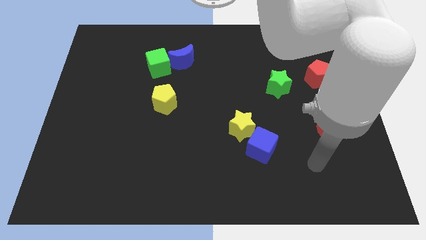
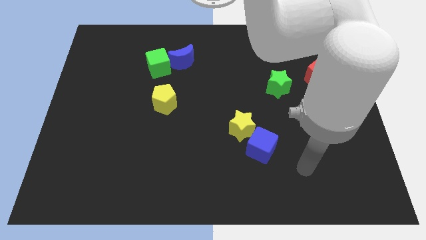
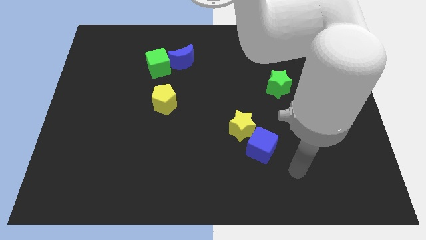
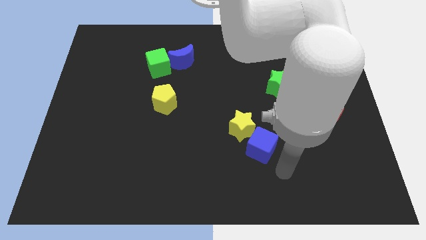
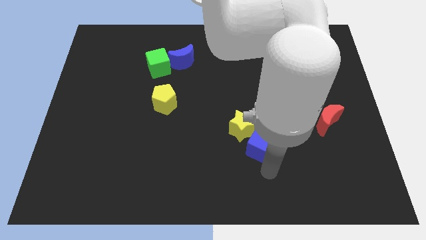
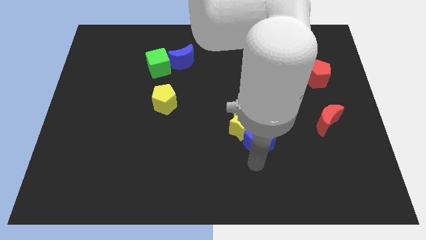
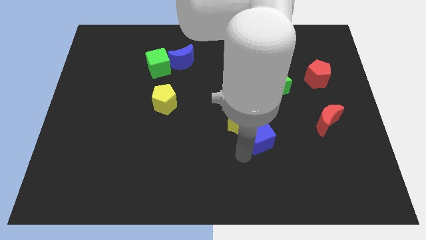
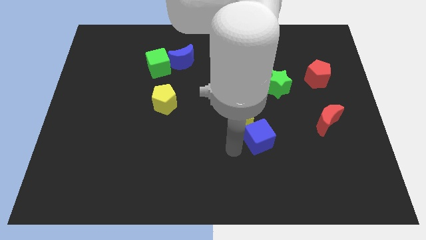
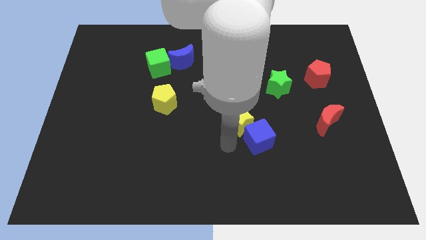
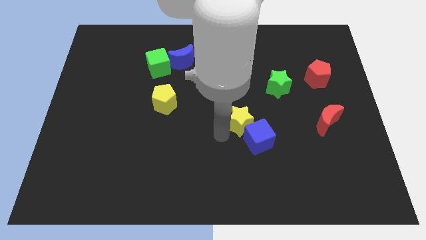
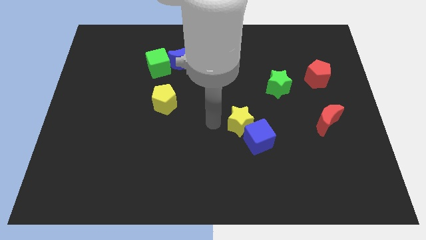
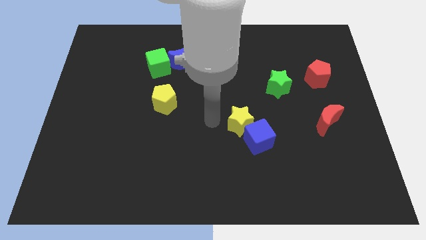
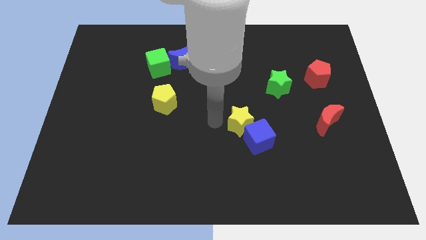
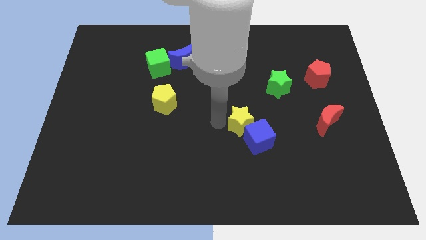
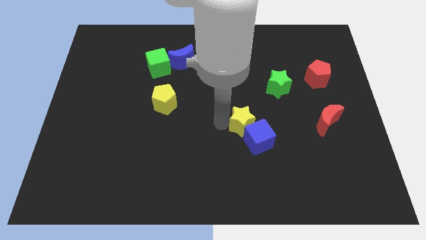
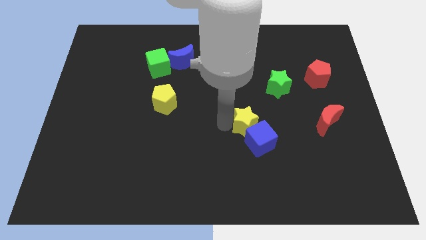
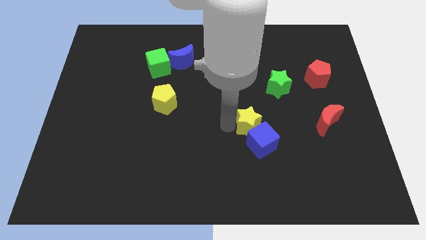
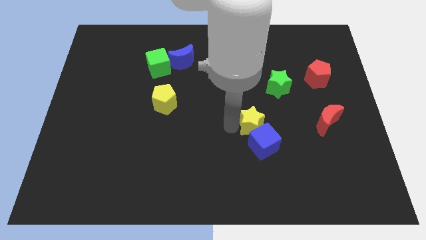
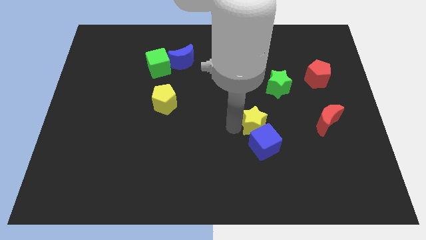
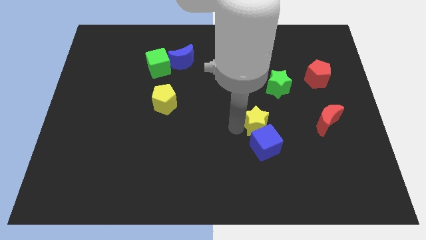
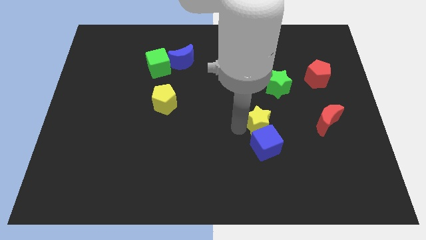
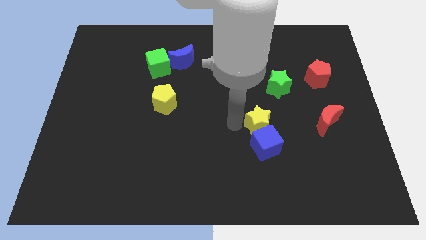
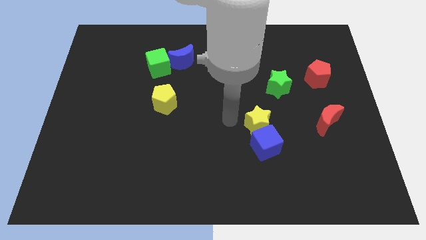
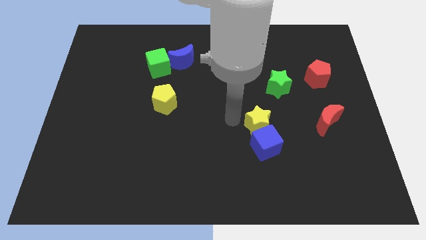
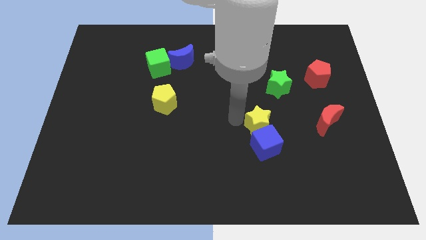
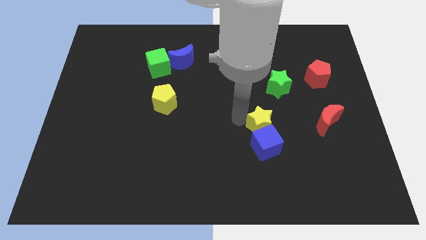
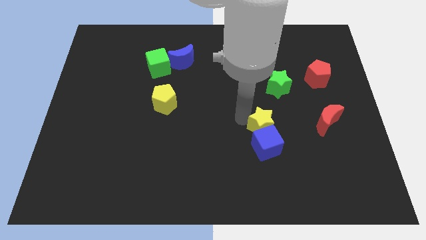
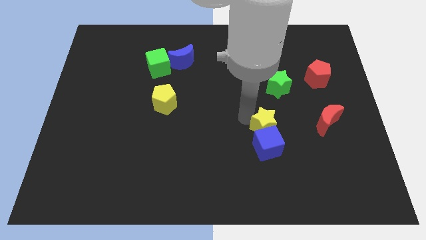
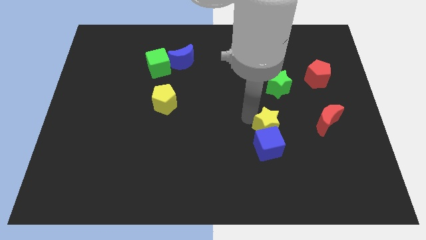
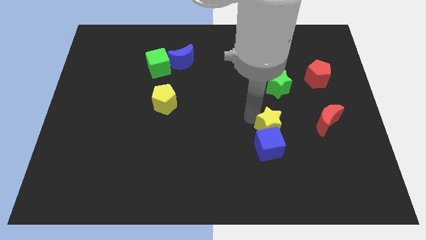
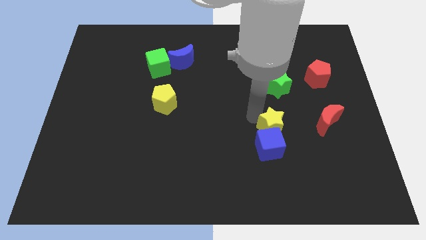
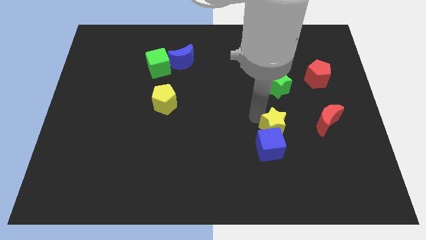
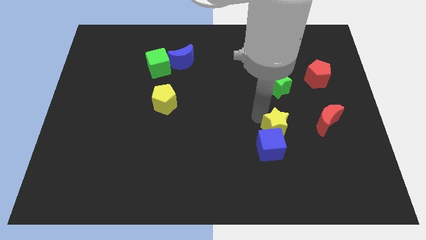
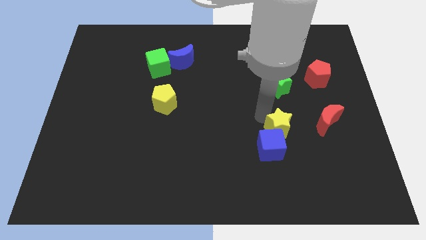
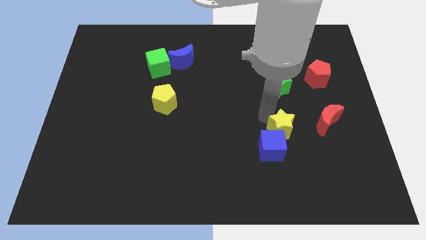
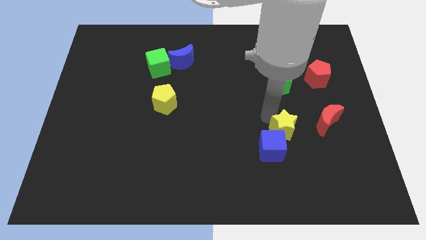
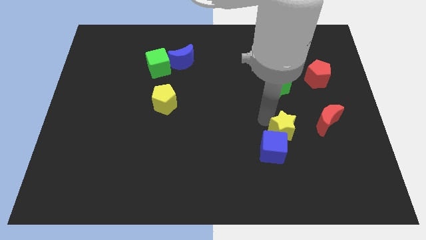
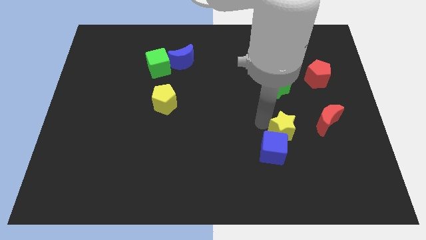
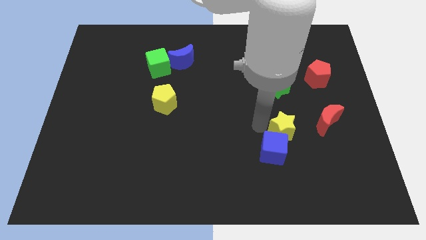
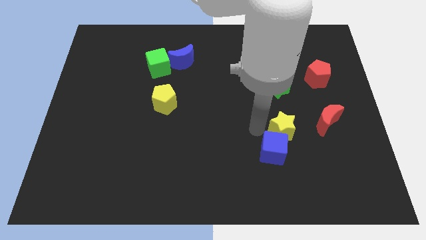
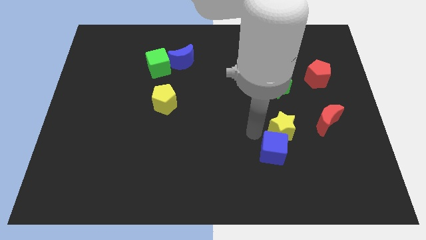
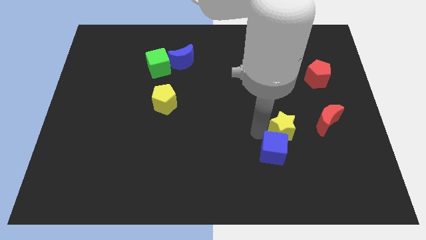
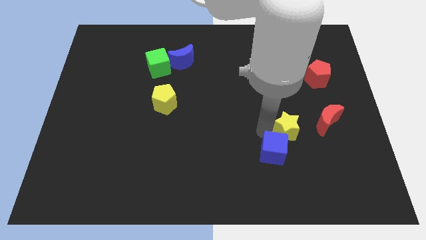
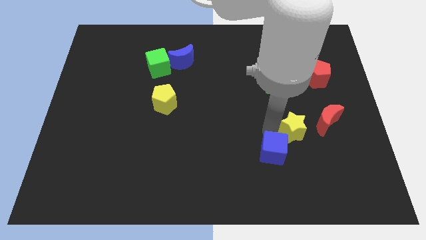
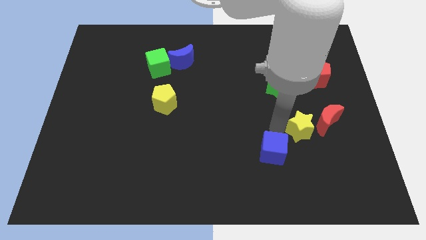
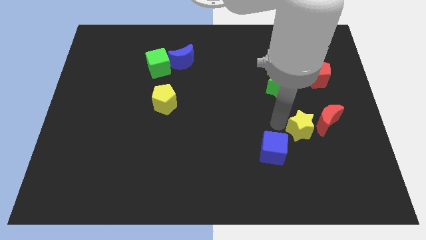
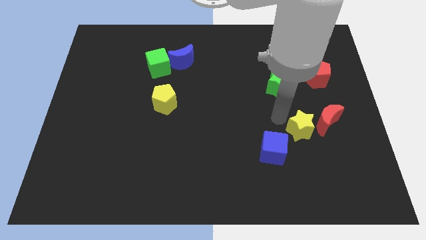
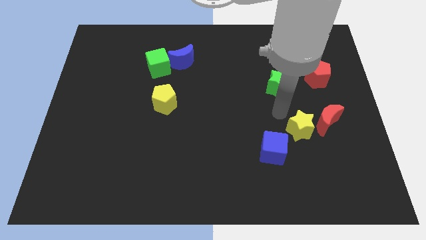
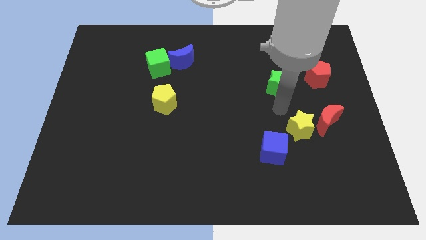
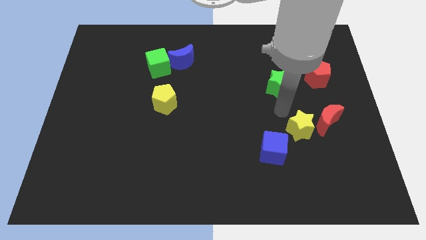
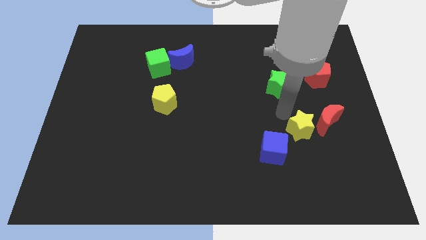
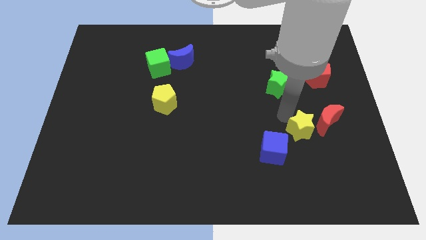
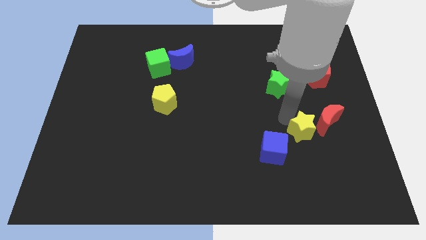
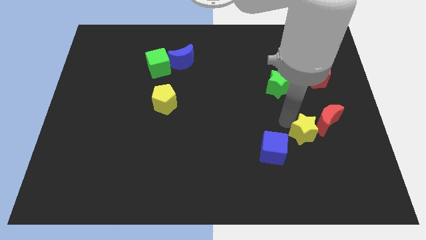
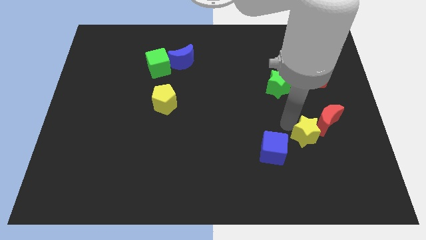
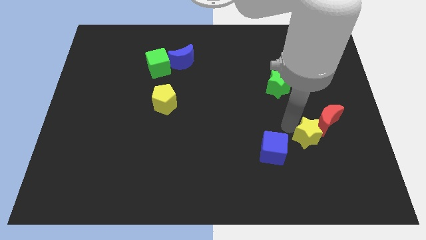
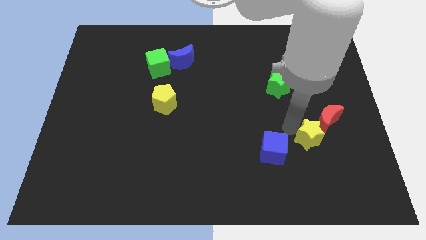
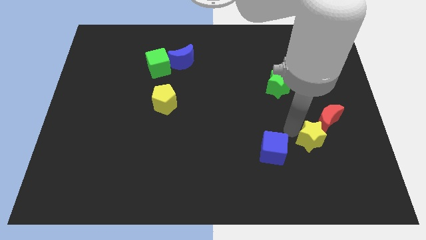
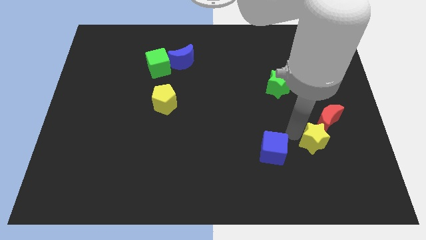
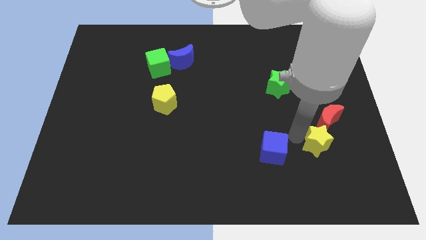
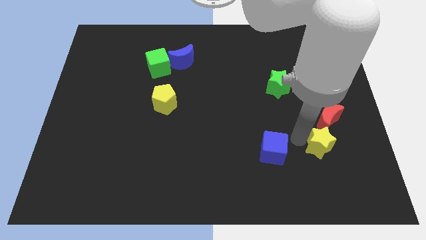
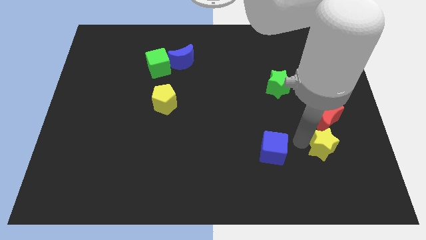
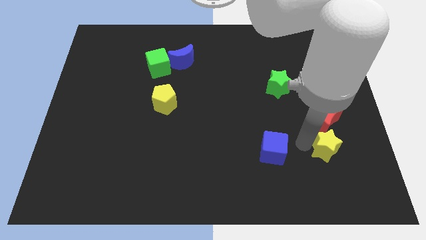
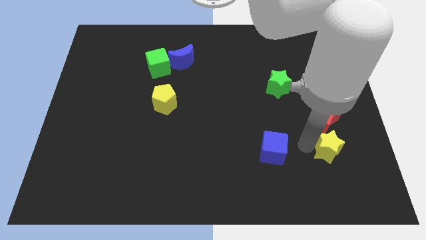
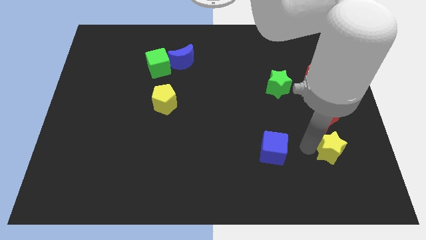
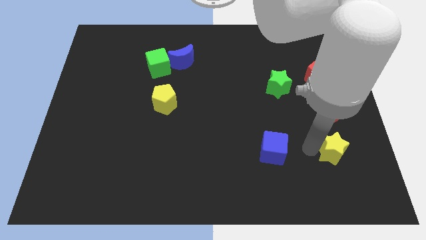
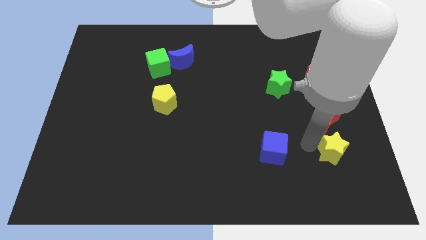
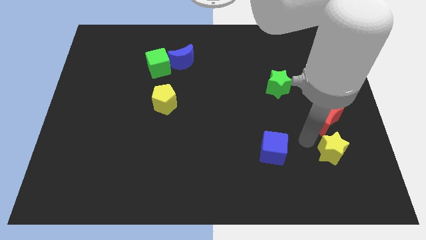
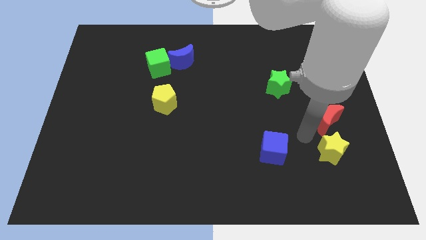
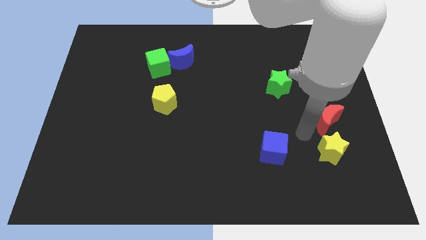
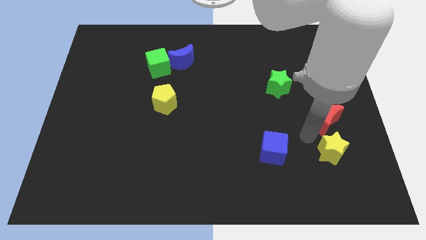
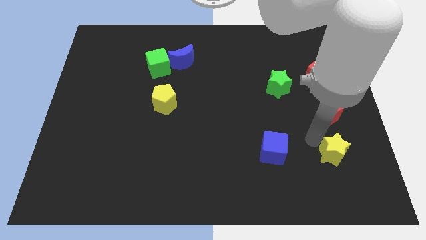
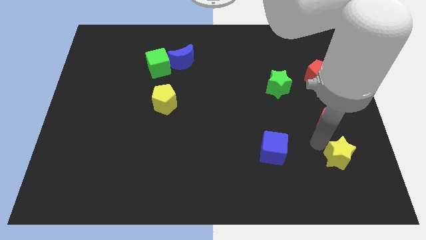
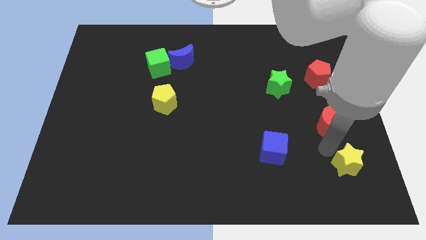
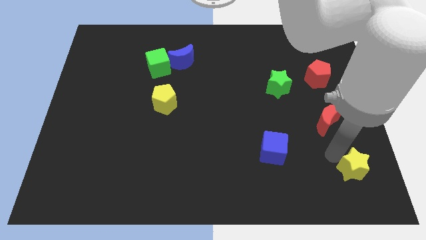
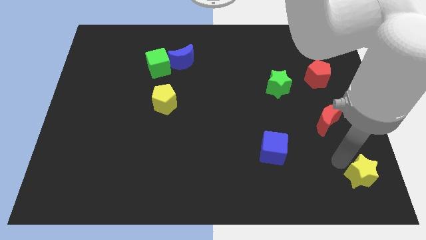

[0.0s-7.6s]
put the yellow star to the lower right corner
